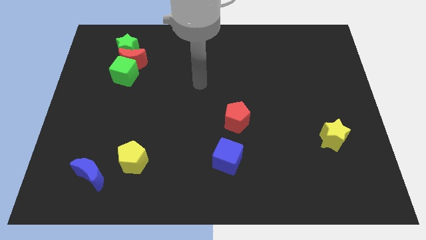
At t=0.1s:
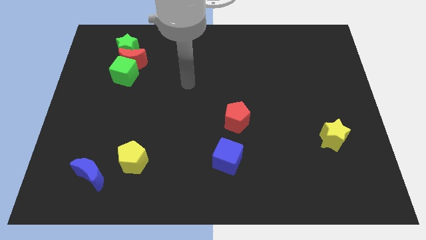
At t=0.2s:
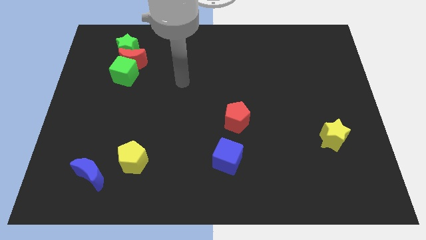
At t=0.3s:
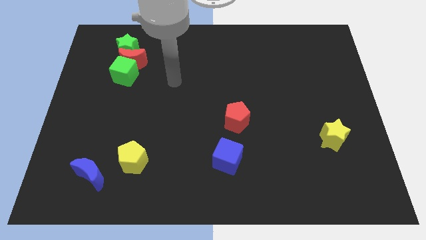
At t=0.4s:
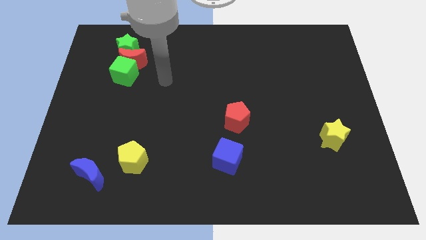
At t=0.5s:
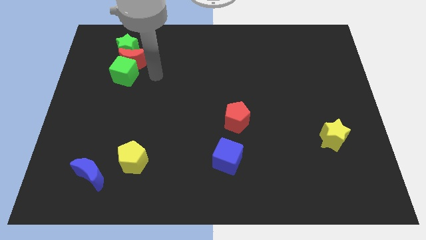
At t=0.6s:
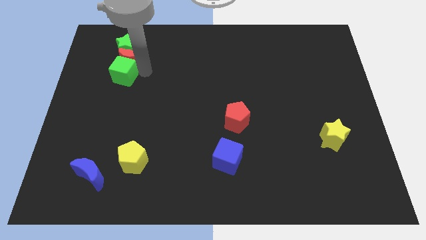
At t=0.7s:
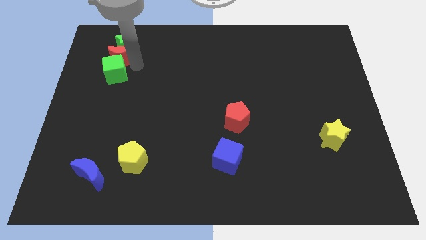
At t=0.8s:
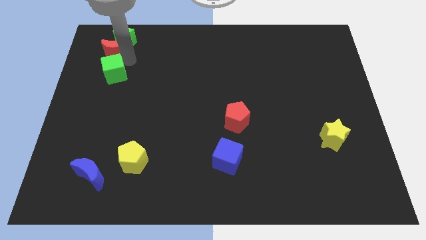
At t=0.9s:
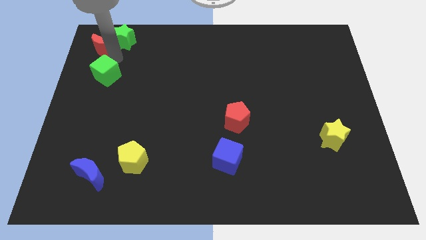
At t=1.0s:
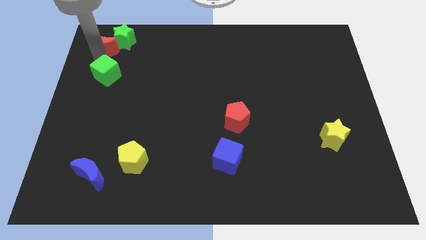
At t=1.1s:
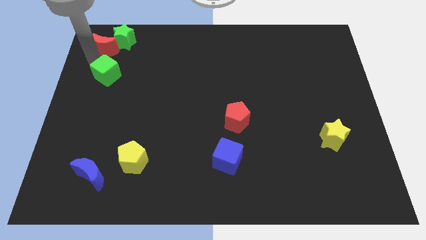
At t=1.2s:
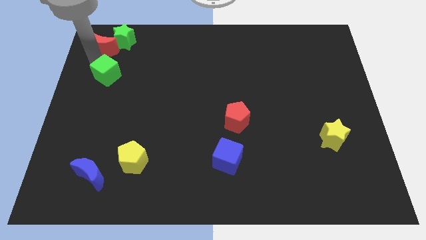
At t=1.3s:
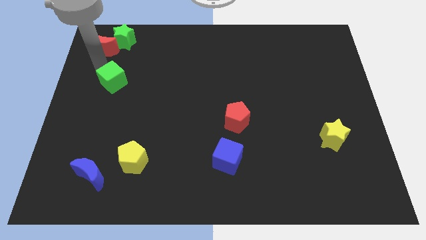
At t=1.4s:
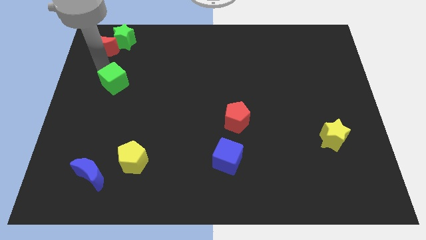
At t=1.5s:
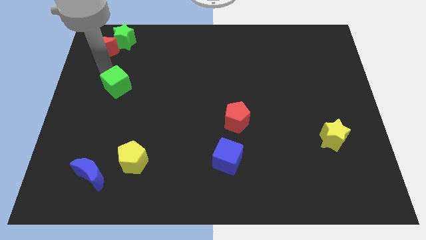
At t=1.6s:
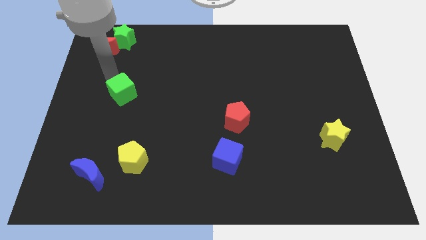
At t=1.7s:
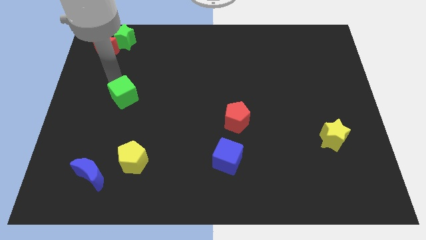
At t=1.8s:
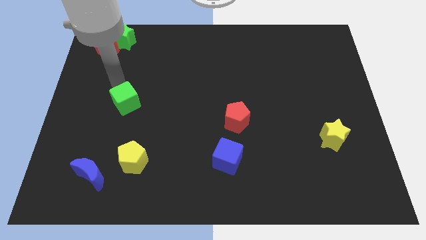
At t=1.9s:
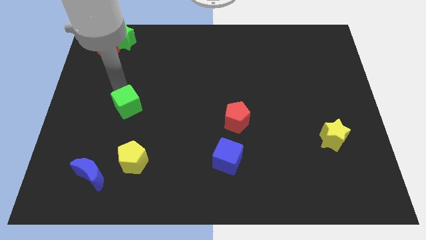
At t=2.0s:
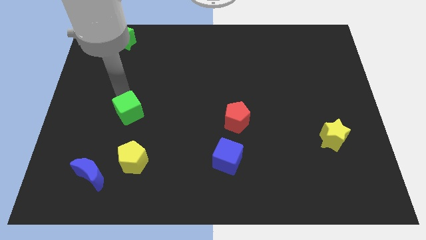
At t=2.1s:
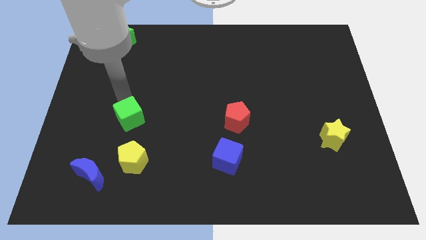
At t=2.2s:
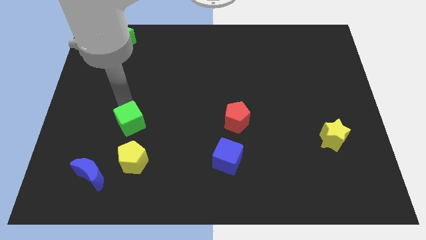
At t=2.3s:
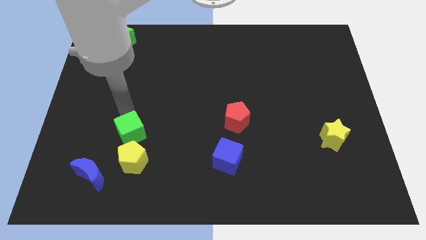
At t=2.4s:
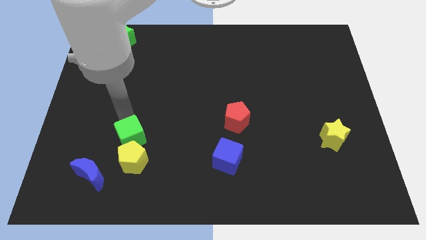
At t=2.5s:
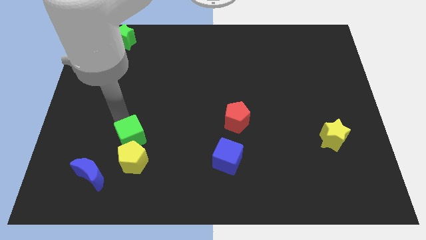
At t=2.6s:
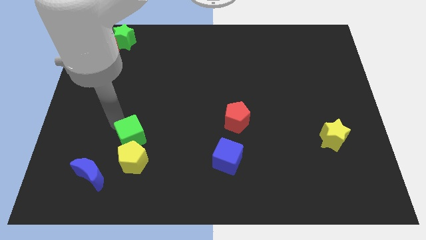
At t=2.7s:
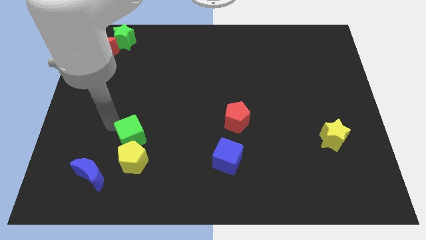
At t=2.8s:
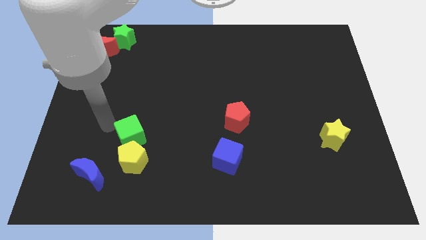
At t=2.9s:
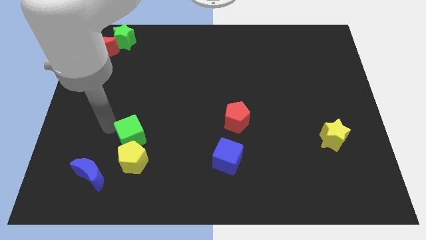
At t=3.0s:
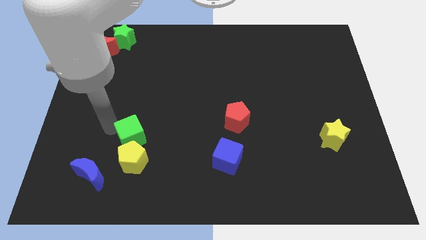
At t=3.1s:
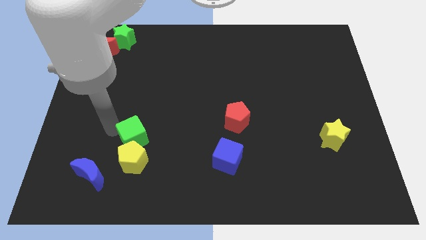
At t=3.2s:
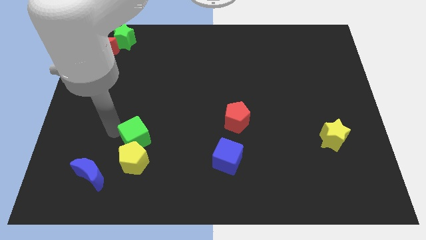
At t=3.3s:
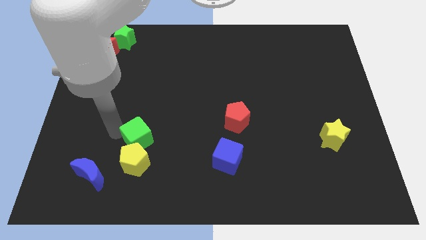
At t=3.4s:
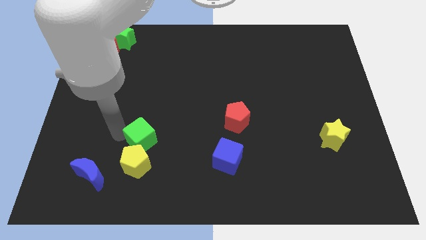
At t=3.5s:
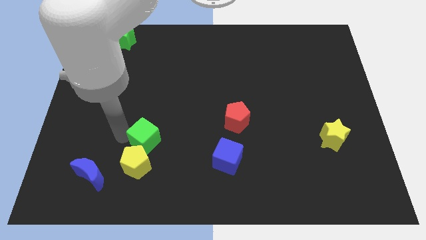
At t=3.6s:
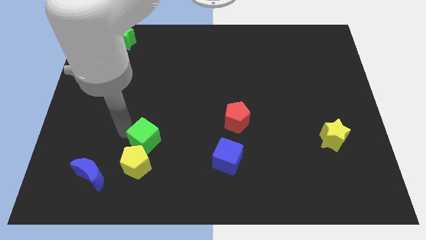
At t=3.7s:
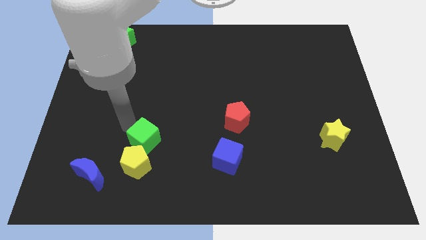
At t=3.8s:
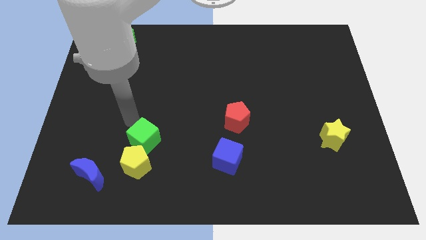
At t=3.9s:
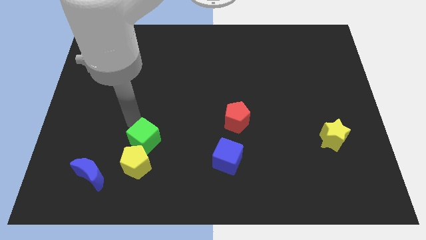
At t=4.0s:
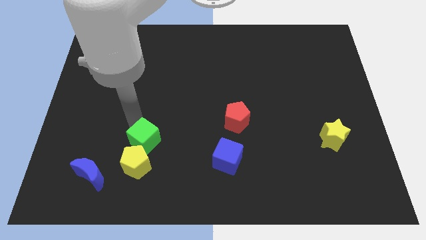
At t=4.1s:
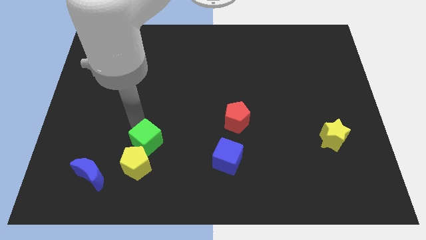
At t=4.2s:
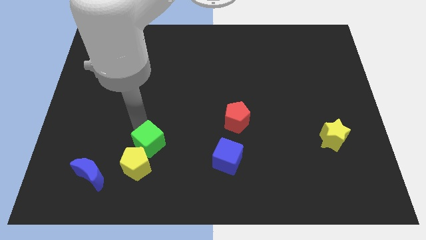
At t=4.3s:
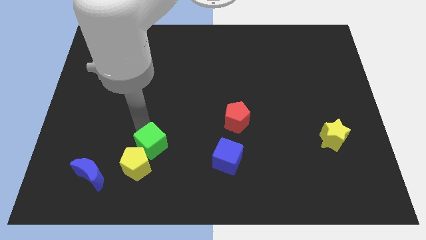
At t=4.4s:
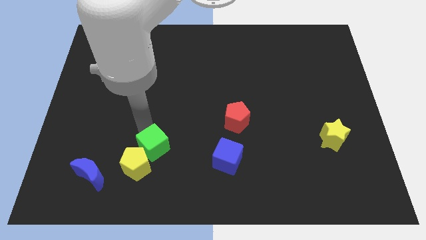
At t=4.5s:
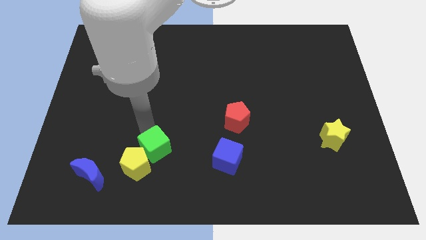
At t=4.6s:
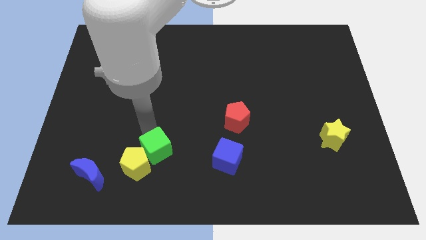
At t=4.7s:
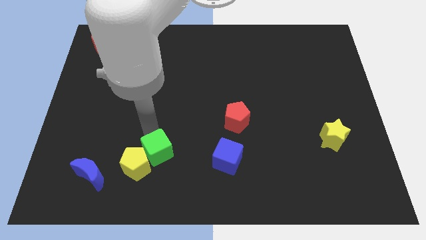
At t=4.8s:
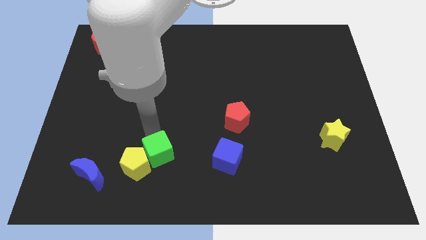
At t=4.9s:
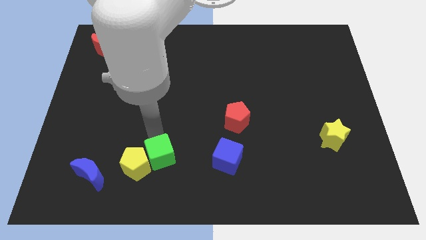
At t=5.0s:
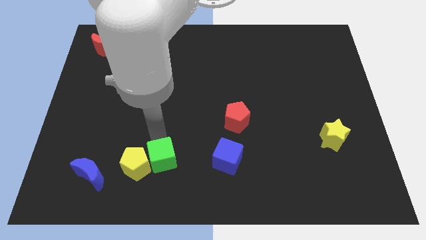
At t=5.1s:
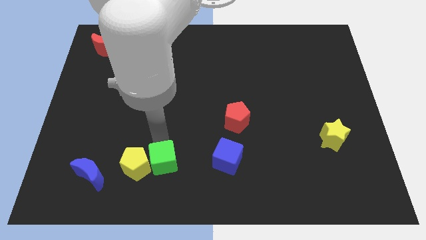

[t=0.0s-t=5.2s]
move the green cube diagonally down and to the right of the yellow pentagon

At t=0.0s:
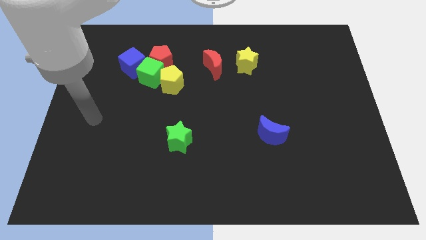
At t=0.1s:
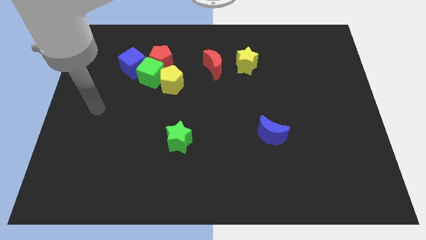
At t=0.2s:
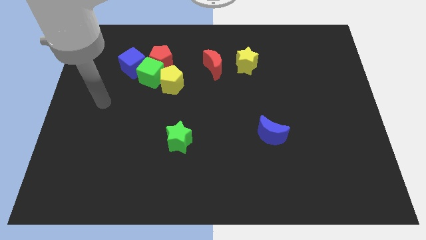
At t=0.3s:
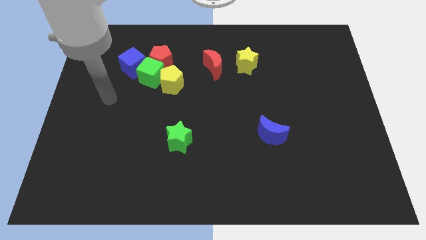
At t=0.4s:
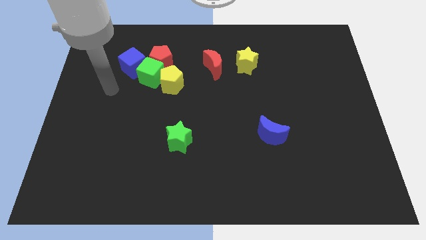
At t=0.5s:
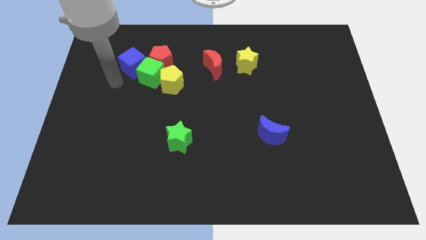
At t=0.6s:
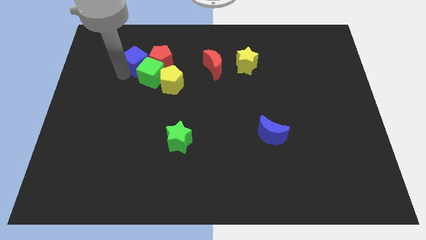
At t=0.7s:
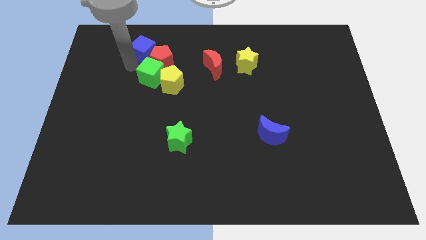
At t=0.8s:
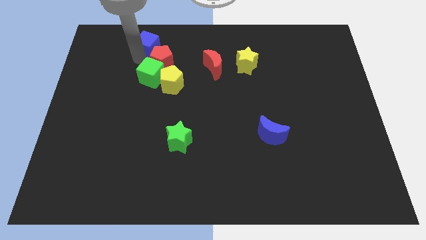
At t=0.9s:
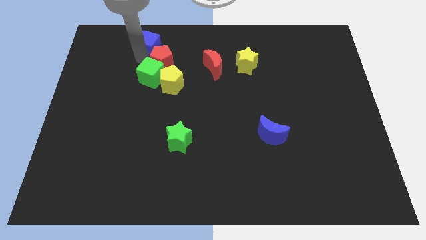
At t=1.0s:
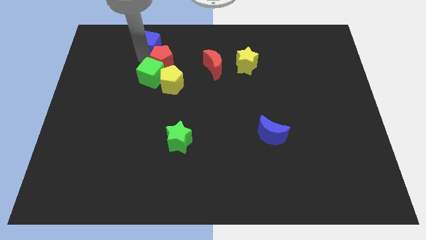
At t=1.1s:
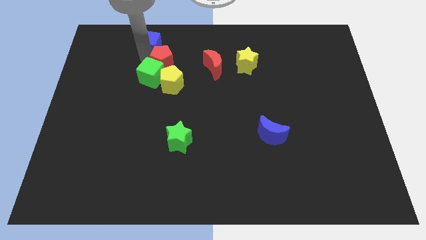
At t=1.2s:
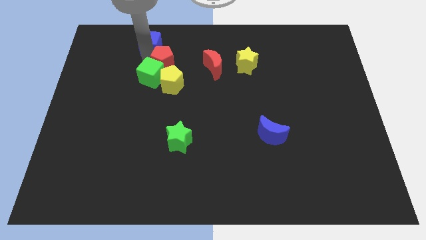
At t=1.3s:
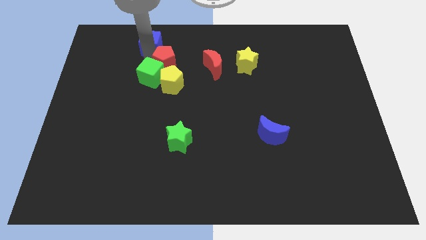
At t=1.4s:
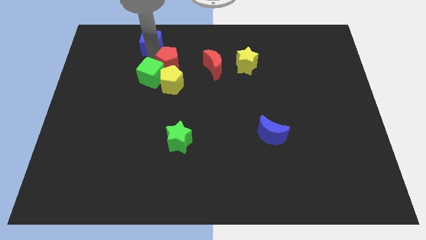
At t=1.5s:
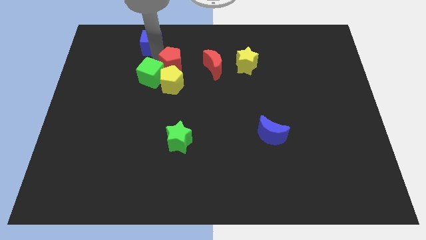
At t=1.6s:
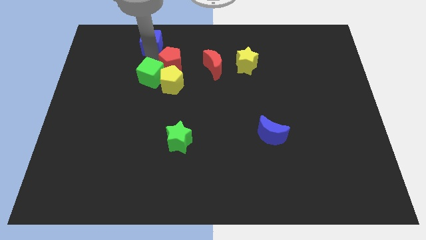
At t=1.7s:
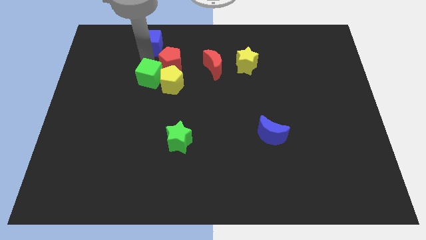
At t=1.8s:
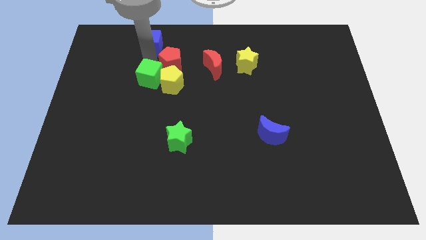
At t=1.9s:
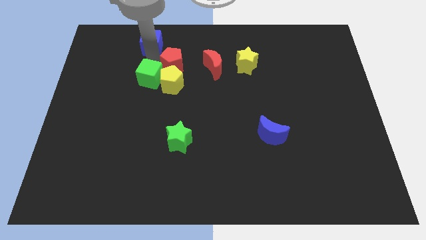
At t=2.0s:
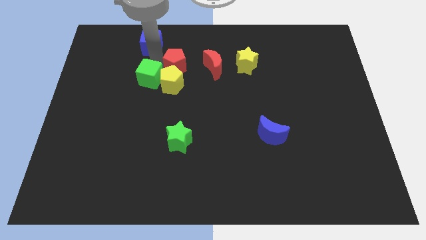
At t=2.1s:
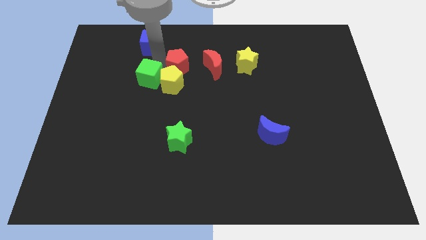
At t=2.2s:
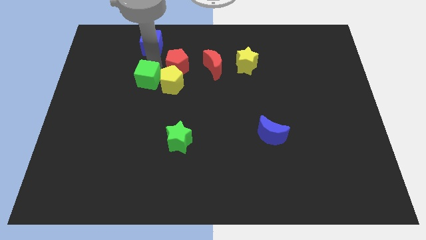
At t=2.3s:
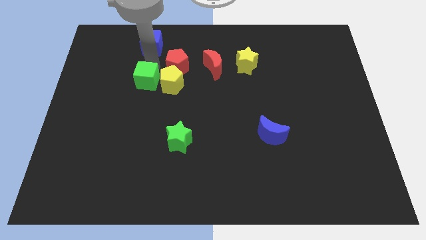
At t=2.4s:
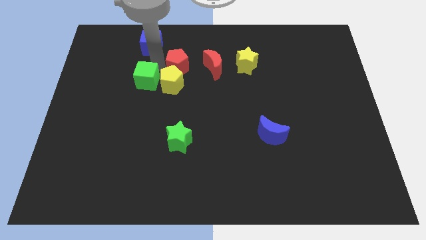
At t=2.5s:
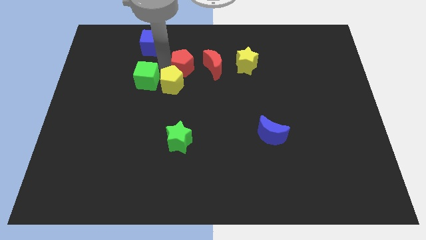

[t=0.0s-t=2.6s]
push the red pentagon just left of the yellow star
